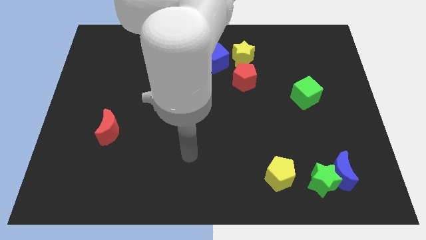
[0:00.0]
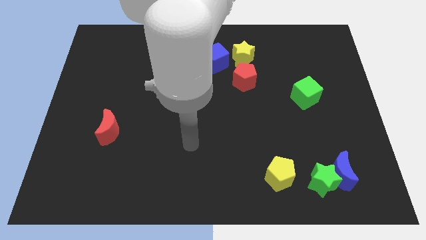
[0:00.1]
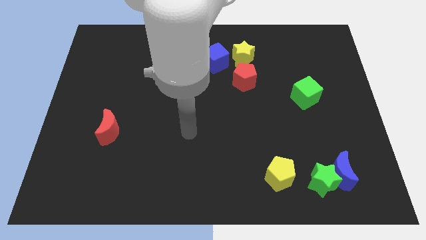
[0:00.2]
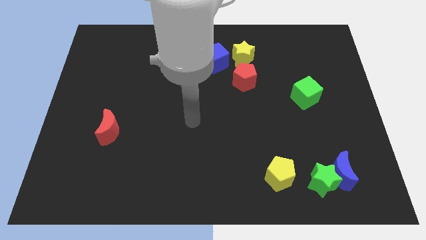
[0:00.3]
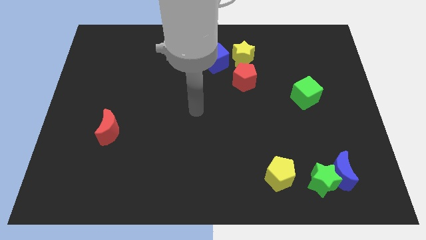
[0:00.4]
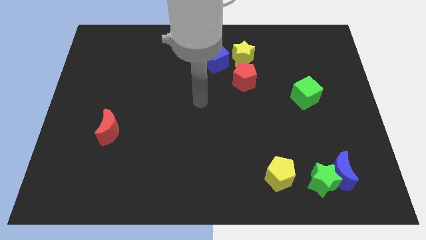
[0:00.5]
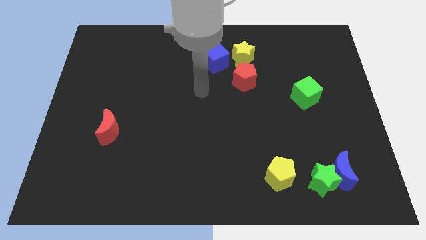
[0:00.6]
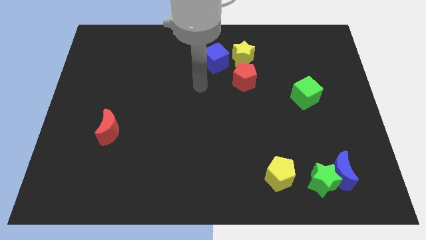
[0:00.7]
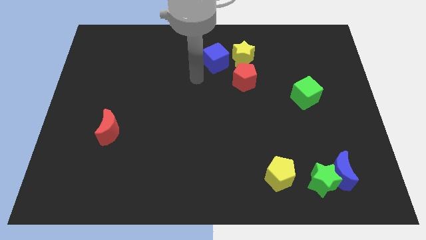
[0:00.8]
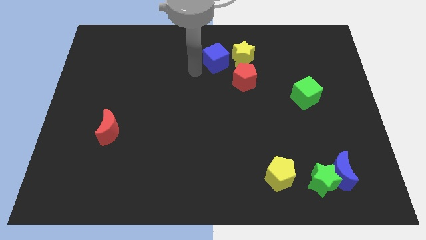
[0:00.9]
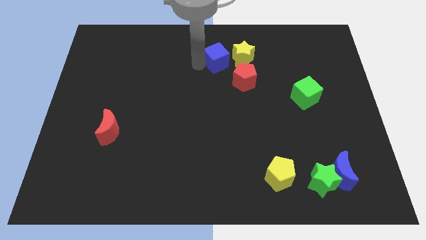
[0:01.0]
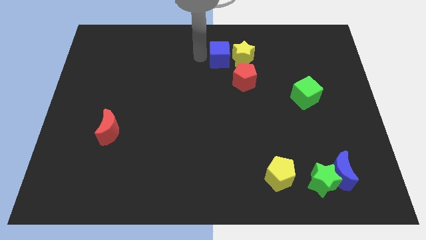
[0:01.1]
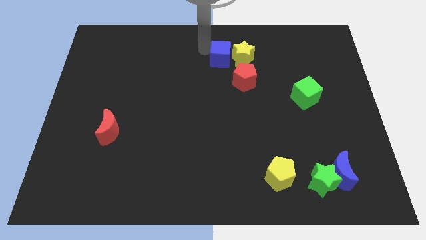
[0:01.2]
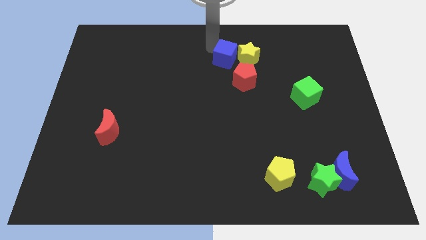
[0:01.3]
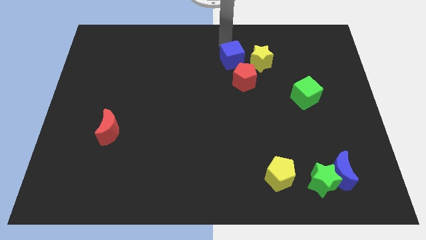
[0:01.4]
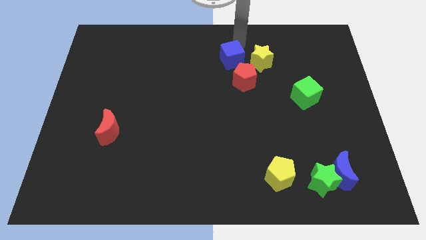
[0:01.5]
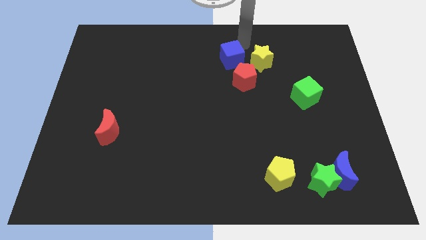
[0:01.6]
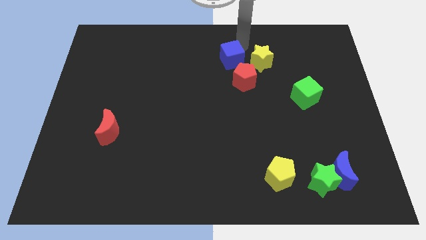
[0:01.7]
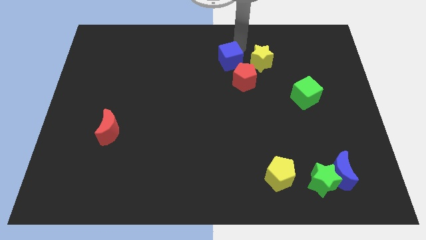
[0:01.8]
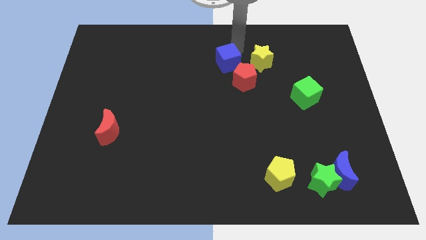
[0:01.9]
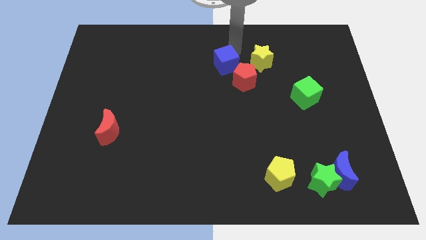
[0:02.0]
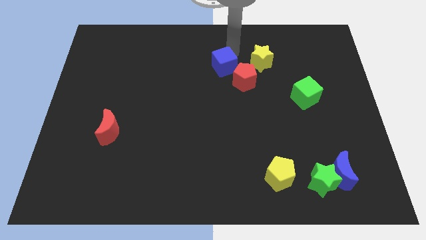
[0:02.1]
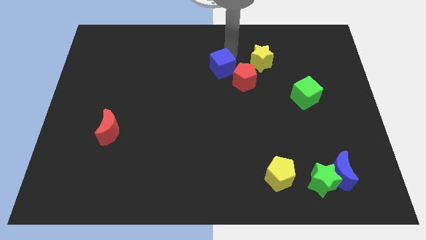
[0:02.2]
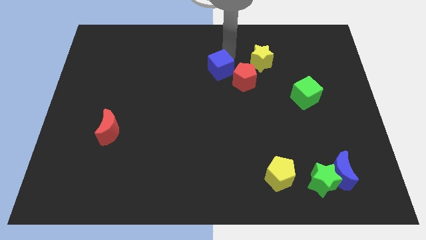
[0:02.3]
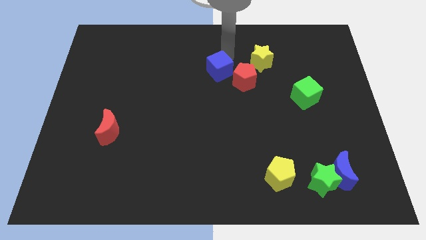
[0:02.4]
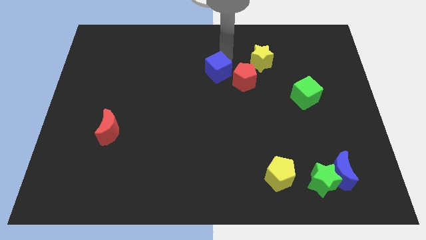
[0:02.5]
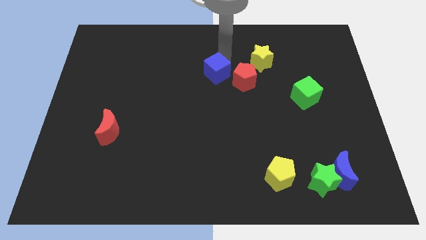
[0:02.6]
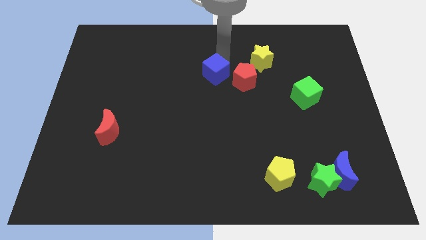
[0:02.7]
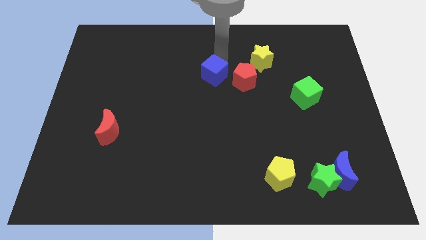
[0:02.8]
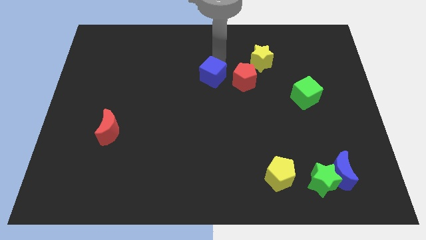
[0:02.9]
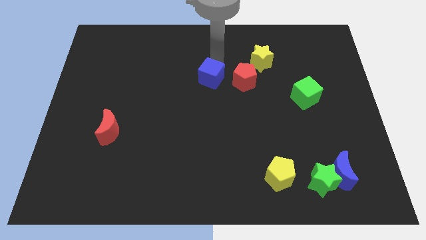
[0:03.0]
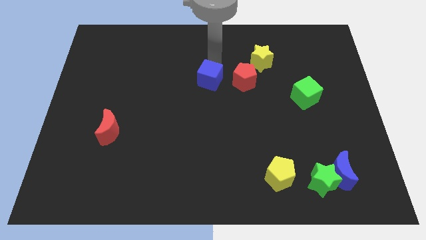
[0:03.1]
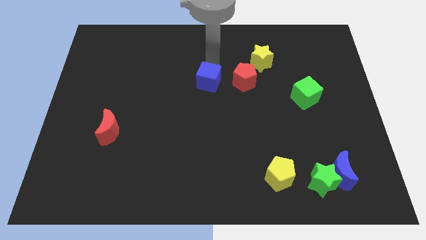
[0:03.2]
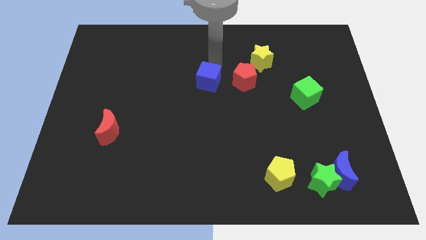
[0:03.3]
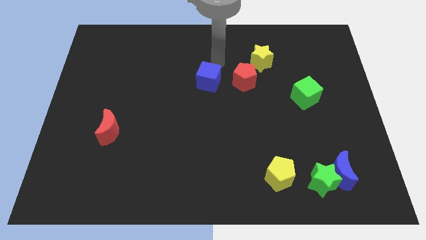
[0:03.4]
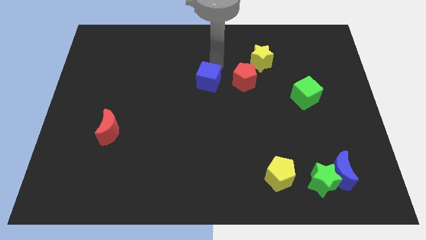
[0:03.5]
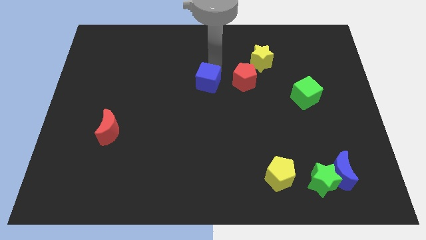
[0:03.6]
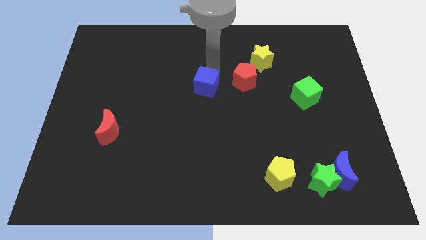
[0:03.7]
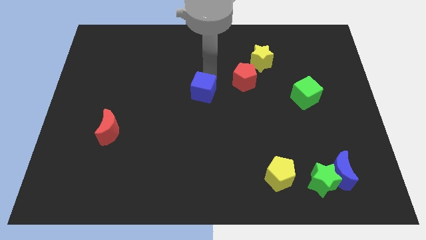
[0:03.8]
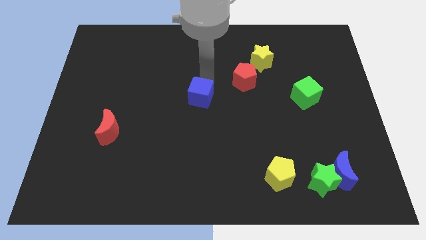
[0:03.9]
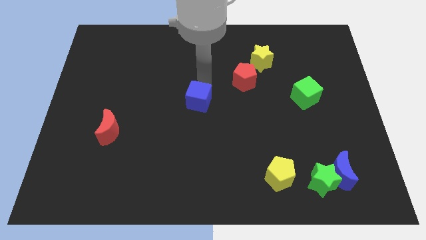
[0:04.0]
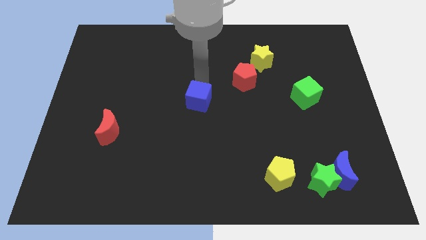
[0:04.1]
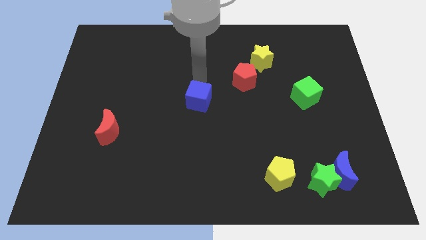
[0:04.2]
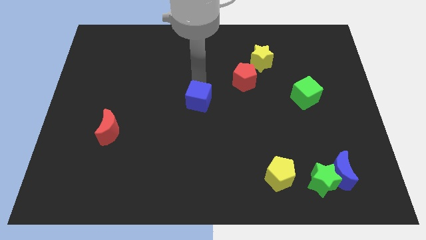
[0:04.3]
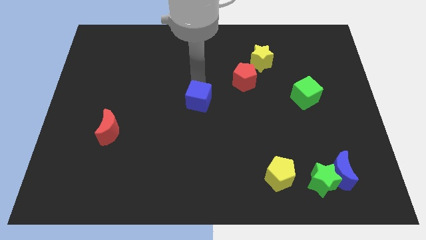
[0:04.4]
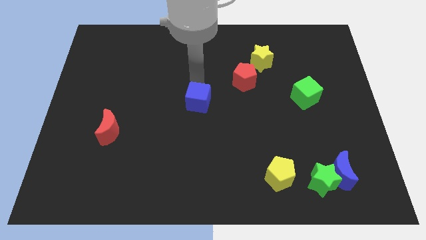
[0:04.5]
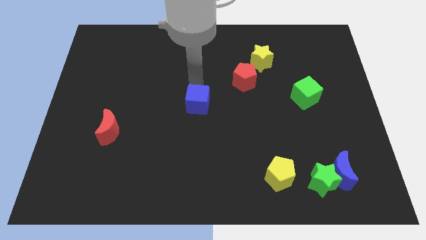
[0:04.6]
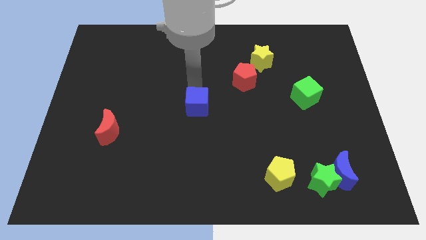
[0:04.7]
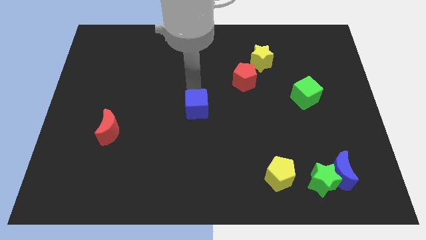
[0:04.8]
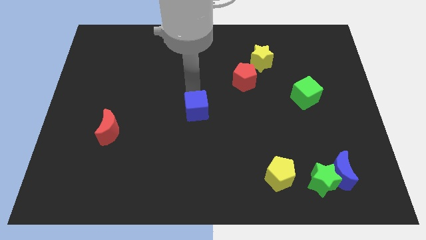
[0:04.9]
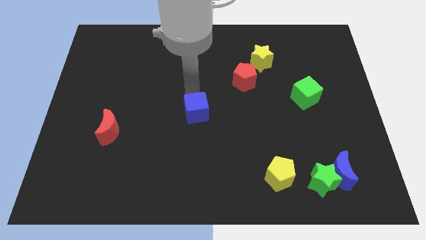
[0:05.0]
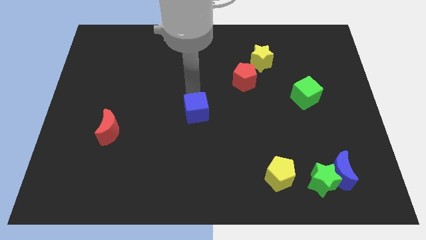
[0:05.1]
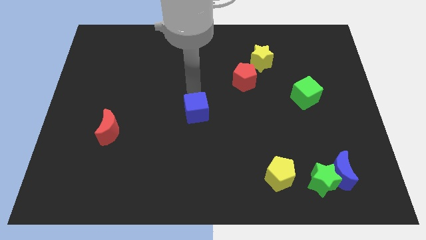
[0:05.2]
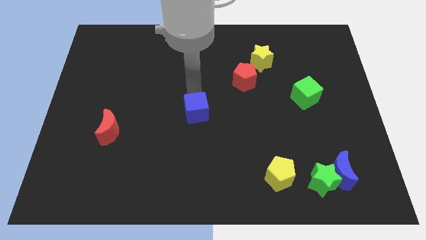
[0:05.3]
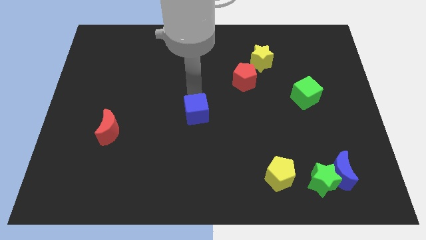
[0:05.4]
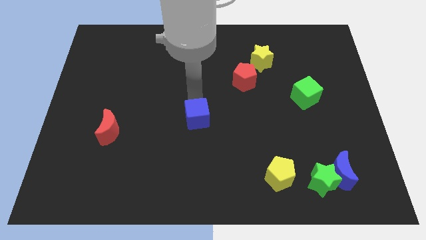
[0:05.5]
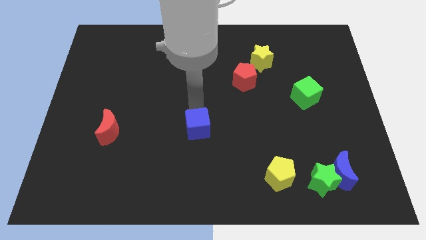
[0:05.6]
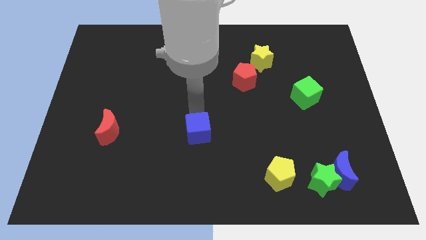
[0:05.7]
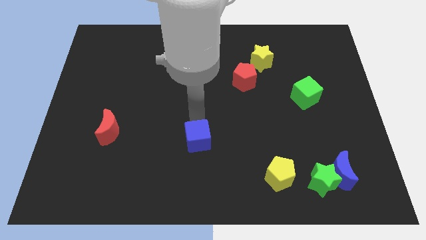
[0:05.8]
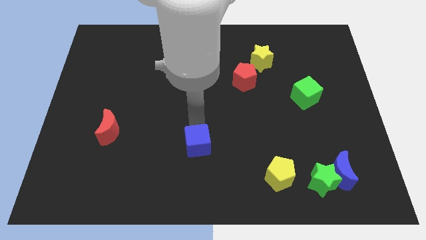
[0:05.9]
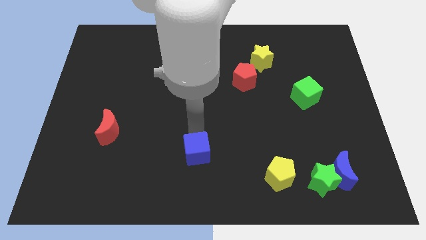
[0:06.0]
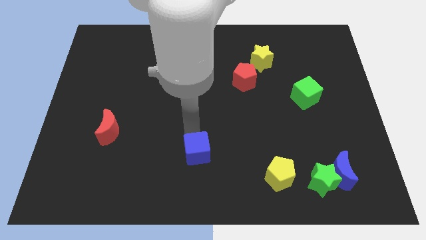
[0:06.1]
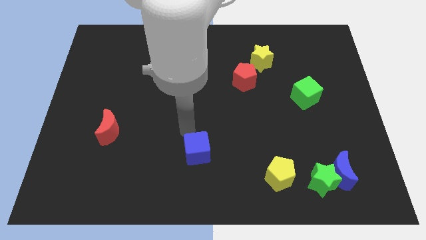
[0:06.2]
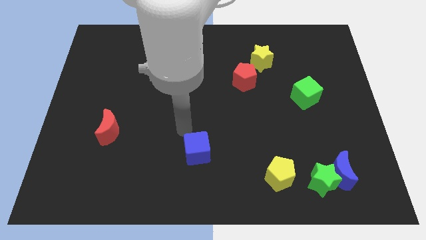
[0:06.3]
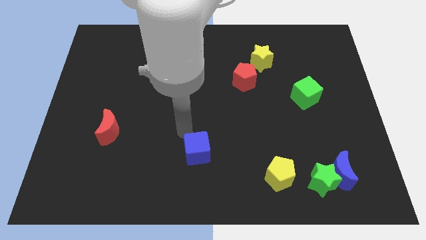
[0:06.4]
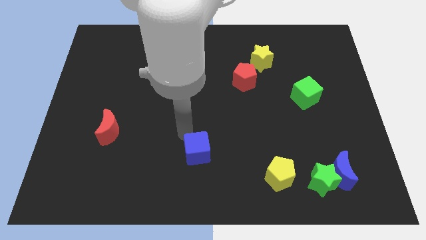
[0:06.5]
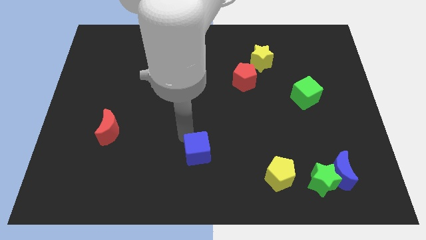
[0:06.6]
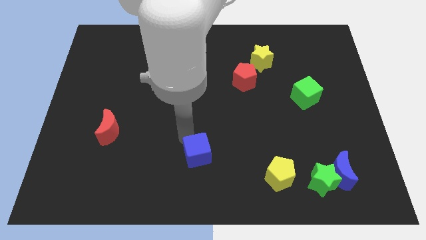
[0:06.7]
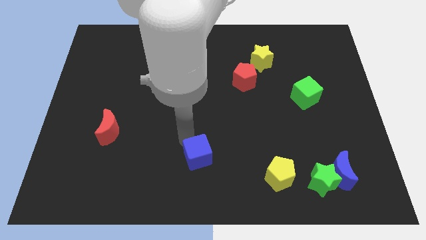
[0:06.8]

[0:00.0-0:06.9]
move the blue cube to the bottom
